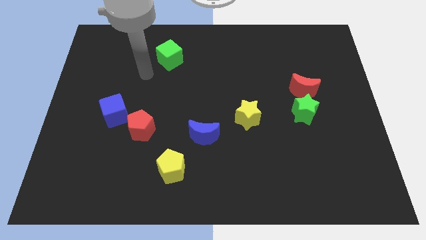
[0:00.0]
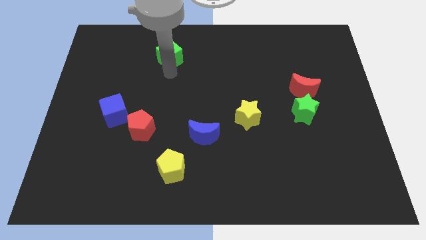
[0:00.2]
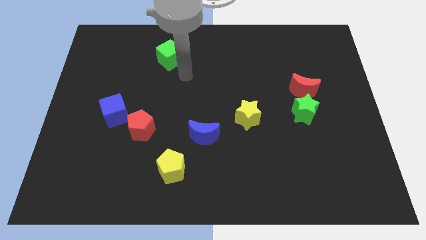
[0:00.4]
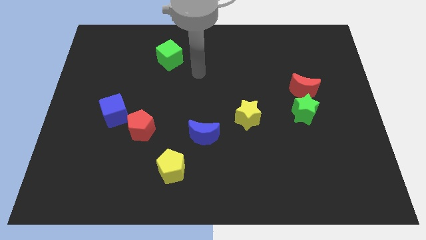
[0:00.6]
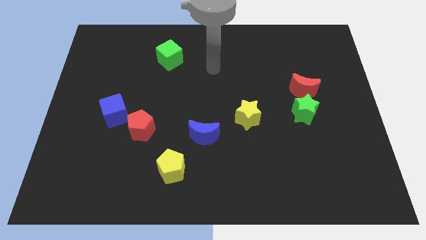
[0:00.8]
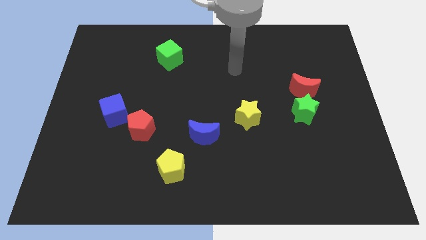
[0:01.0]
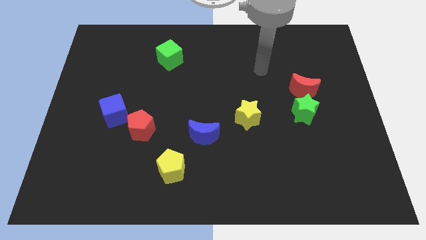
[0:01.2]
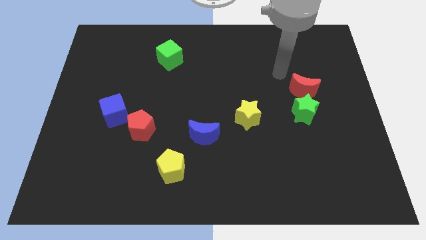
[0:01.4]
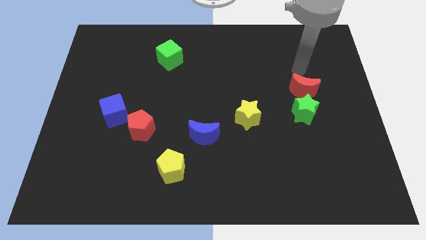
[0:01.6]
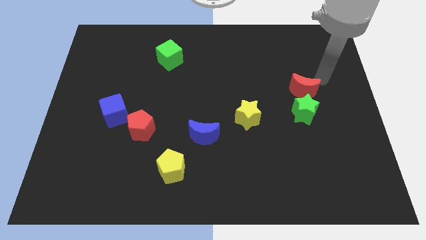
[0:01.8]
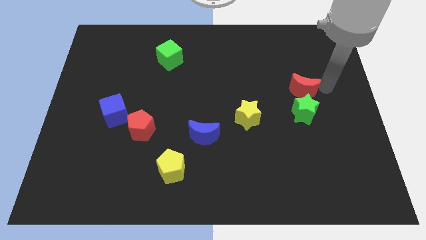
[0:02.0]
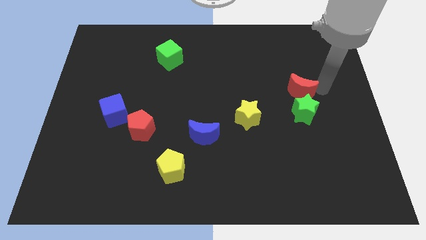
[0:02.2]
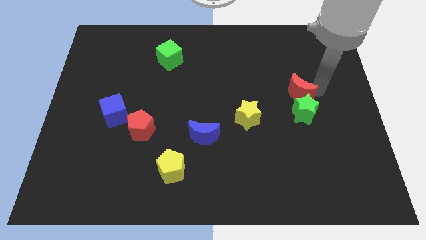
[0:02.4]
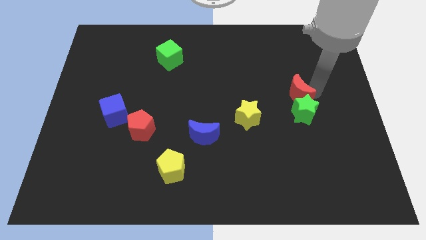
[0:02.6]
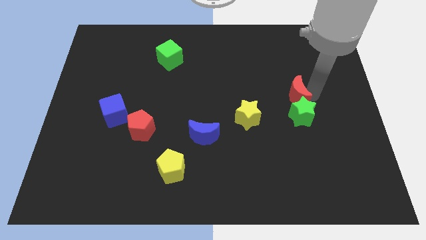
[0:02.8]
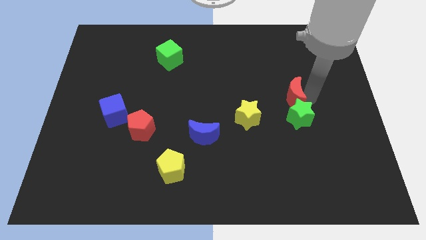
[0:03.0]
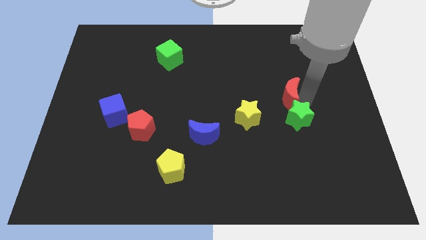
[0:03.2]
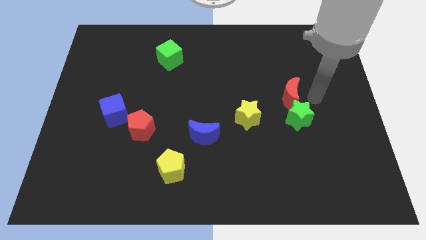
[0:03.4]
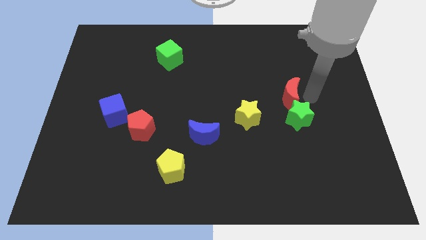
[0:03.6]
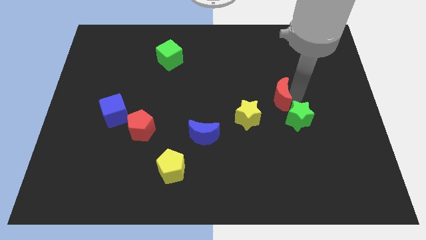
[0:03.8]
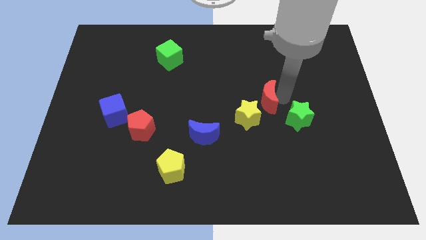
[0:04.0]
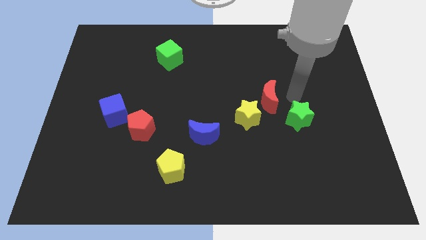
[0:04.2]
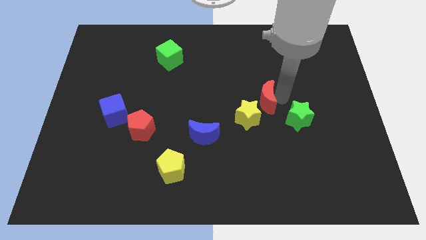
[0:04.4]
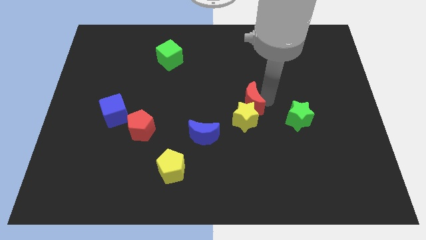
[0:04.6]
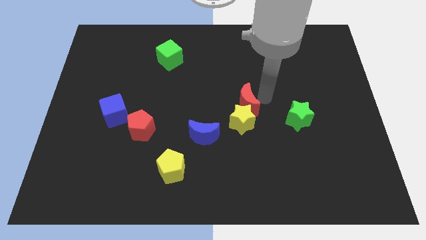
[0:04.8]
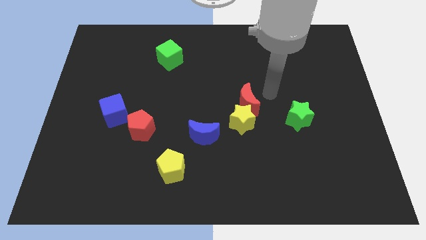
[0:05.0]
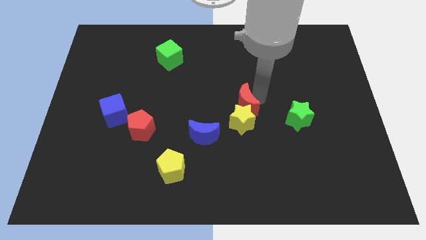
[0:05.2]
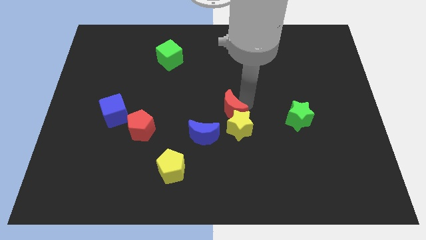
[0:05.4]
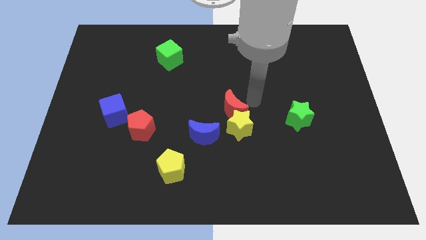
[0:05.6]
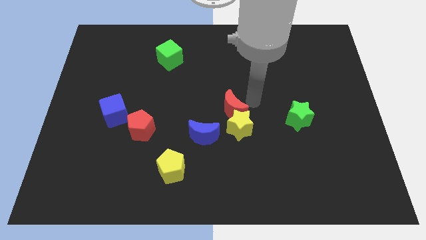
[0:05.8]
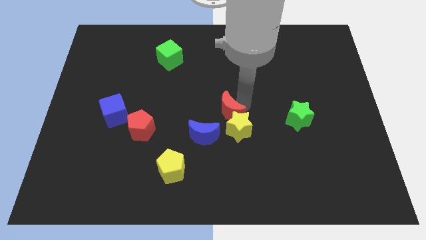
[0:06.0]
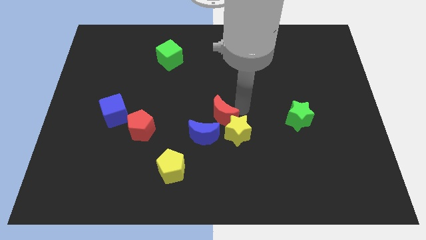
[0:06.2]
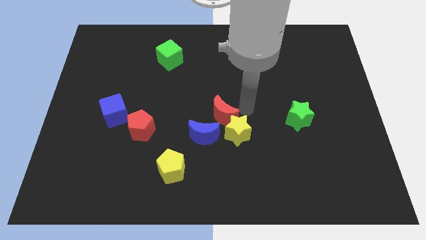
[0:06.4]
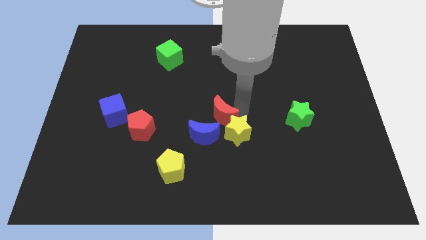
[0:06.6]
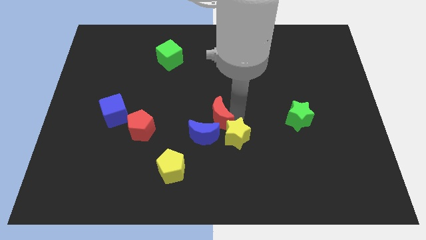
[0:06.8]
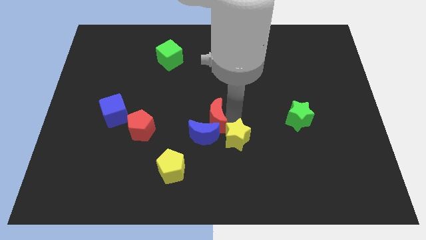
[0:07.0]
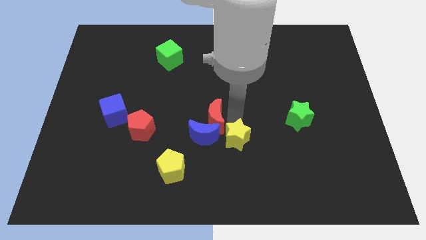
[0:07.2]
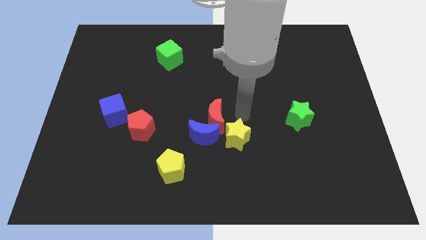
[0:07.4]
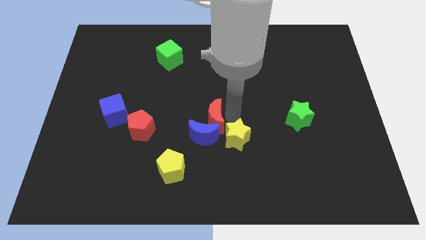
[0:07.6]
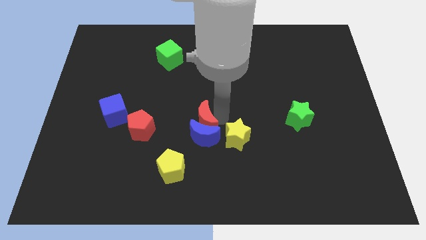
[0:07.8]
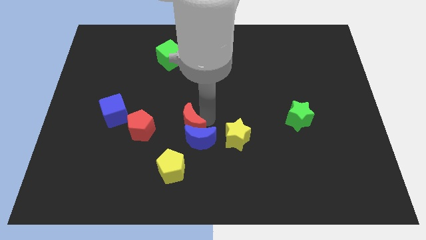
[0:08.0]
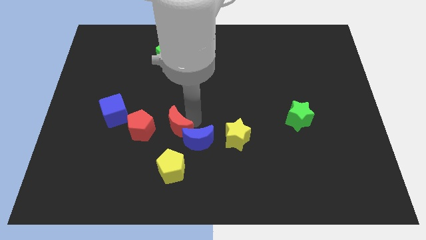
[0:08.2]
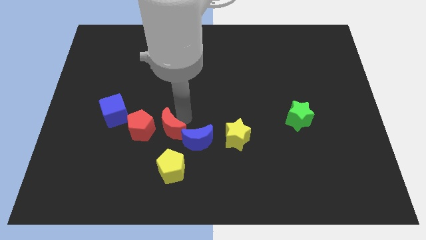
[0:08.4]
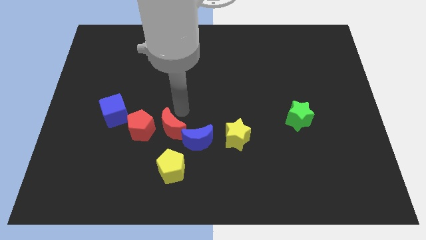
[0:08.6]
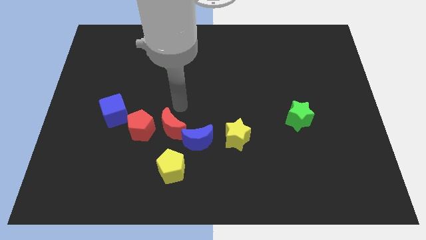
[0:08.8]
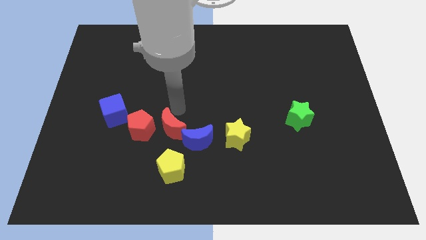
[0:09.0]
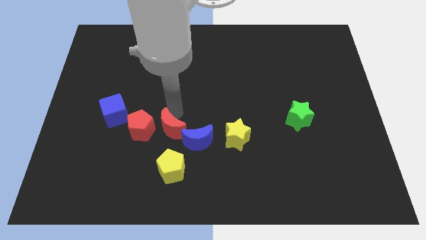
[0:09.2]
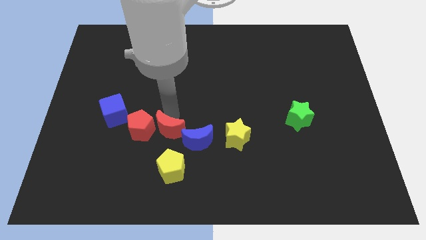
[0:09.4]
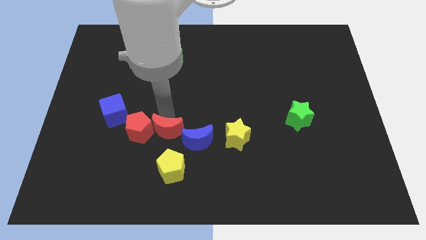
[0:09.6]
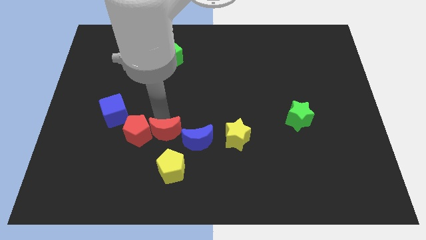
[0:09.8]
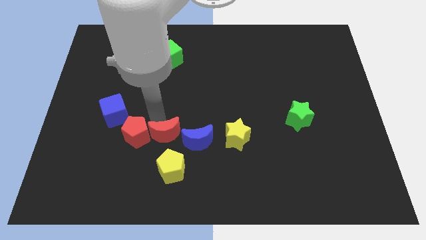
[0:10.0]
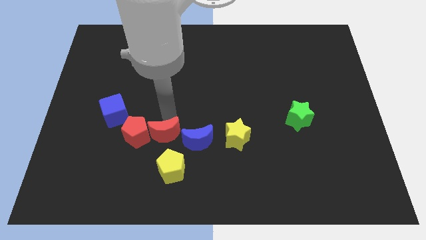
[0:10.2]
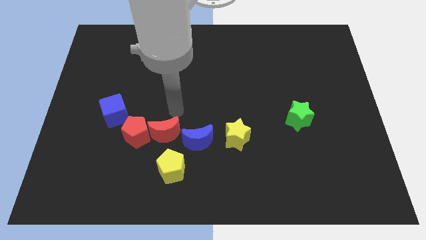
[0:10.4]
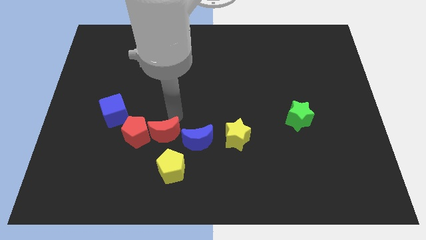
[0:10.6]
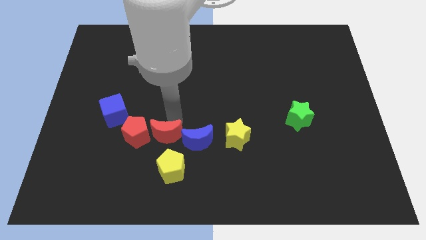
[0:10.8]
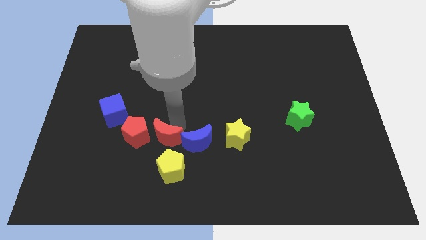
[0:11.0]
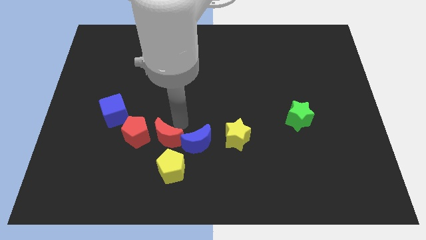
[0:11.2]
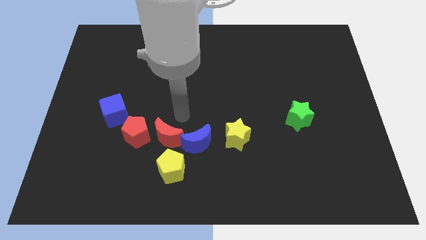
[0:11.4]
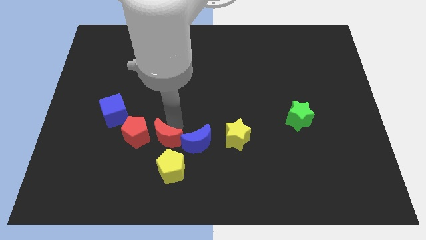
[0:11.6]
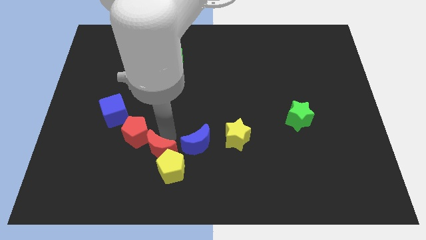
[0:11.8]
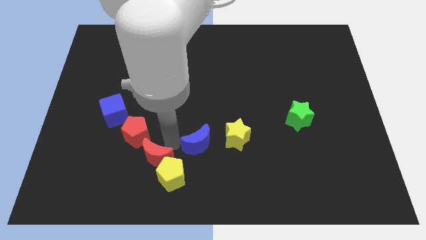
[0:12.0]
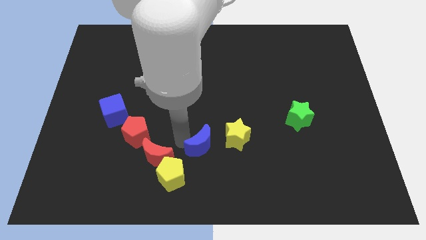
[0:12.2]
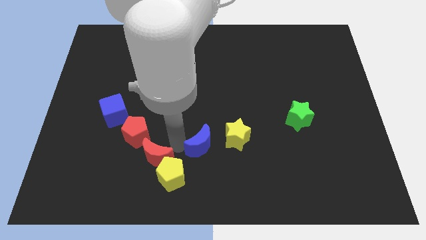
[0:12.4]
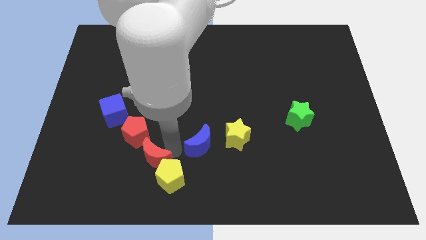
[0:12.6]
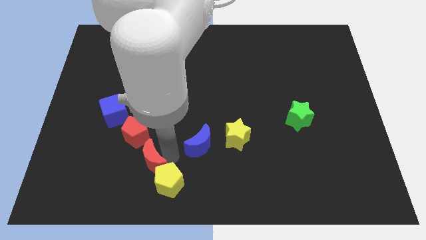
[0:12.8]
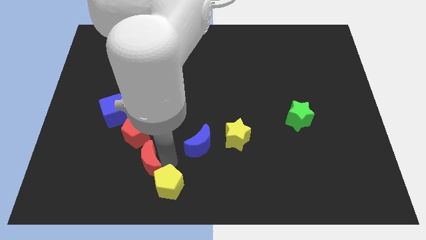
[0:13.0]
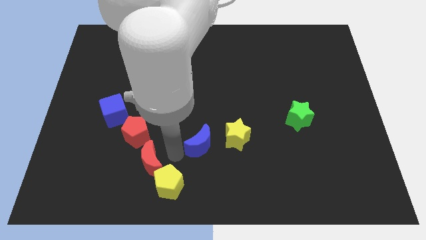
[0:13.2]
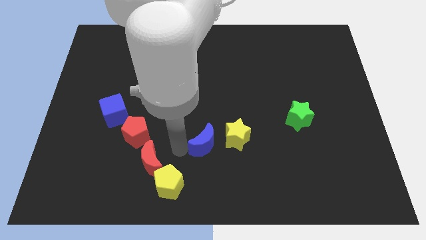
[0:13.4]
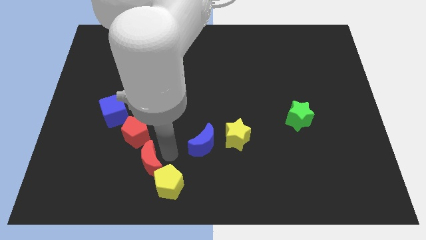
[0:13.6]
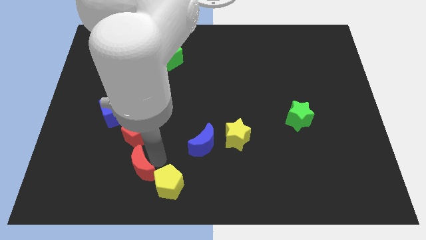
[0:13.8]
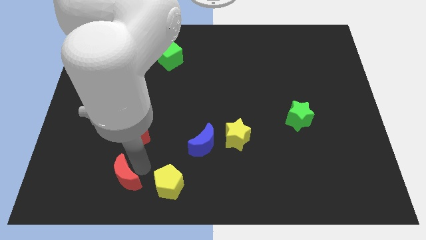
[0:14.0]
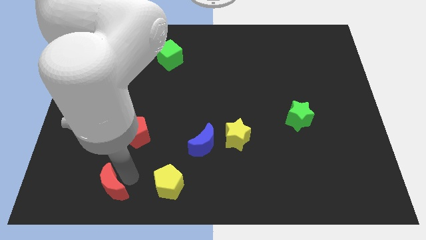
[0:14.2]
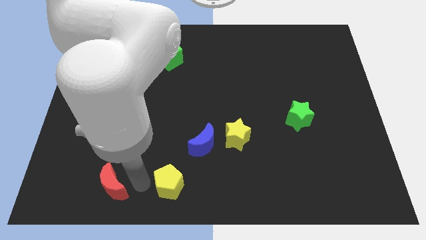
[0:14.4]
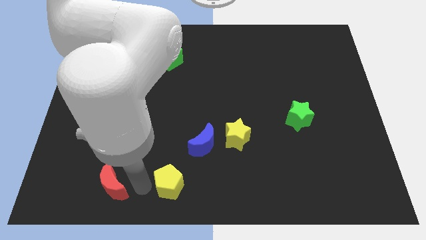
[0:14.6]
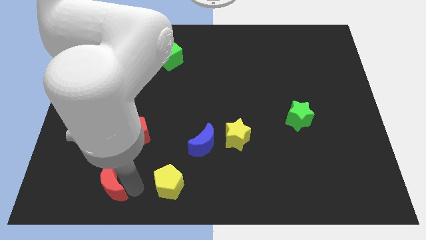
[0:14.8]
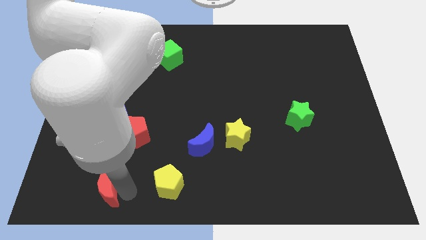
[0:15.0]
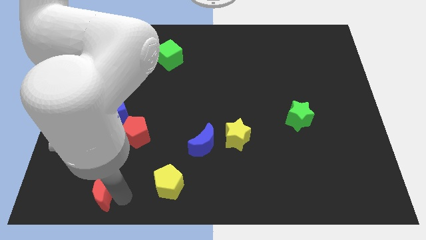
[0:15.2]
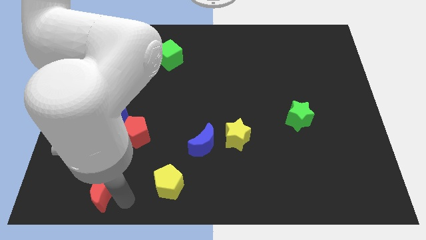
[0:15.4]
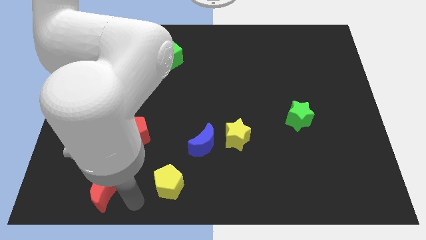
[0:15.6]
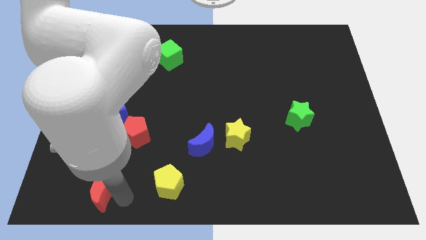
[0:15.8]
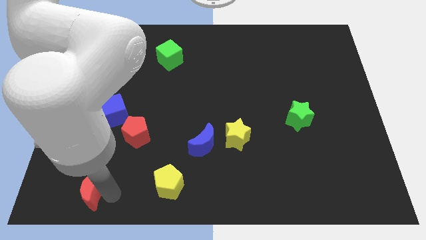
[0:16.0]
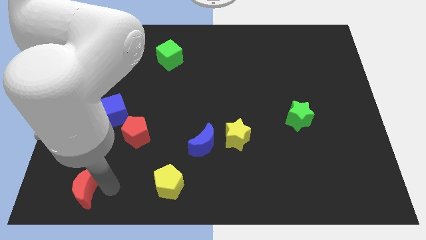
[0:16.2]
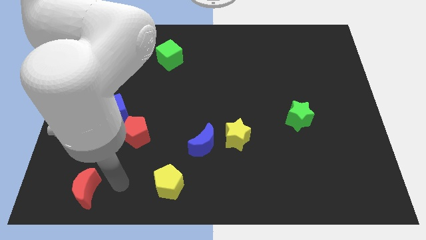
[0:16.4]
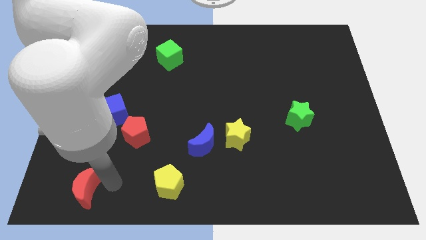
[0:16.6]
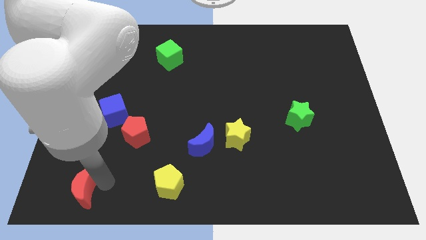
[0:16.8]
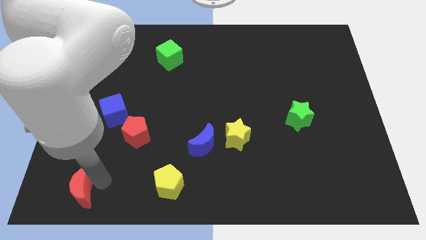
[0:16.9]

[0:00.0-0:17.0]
push the red moon to the bottom left corner
